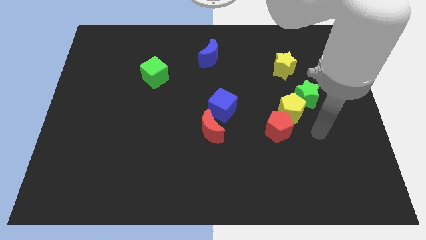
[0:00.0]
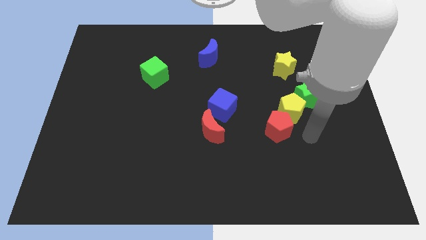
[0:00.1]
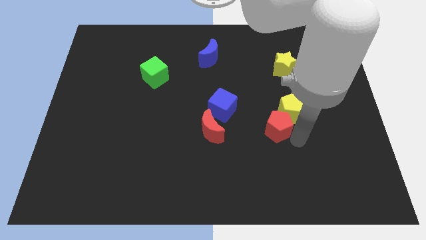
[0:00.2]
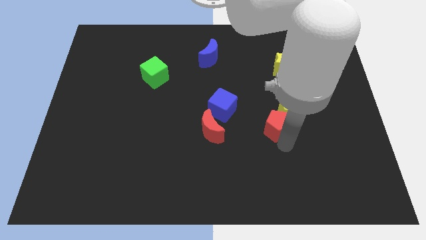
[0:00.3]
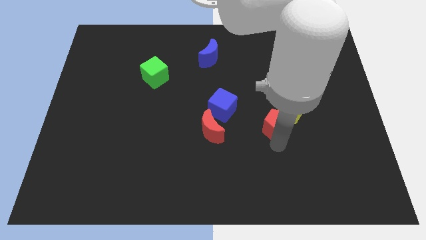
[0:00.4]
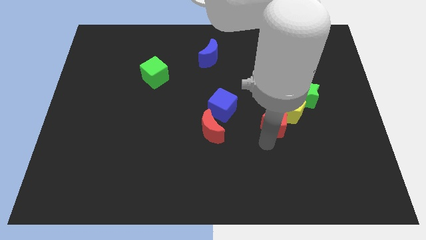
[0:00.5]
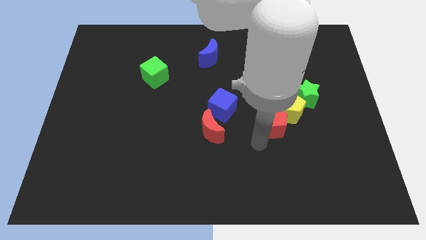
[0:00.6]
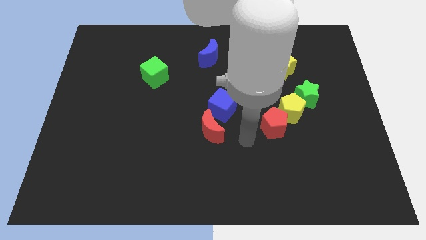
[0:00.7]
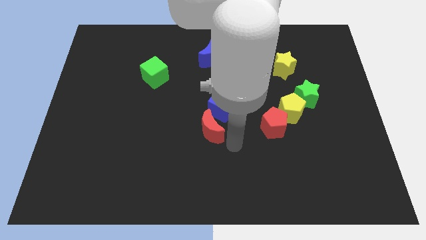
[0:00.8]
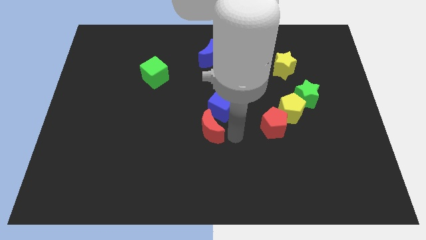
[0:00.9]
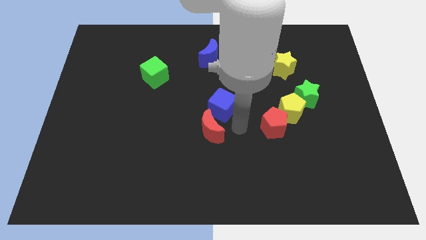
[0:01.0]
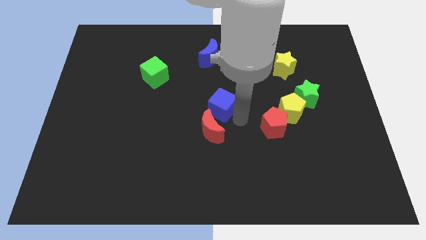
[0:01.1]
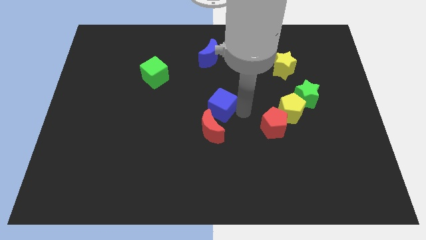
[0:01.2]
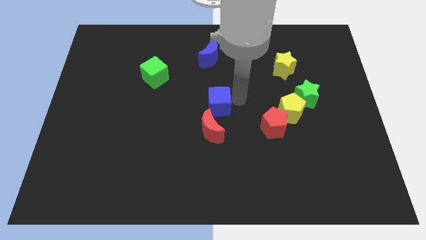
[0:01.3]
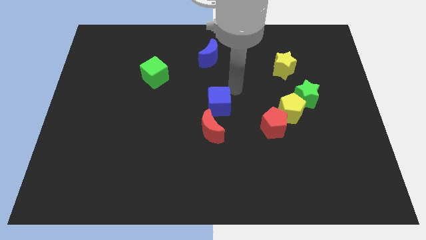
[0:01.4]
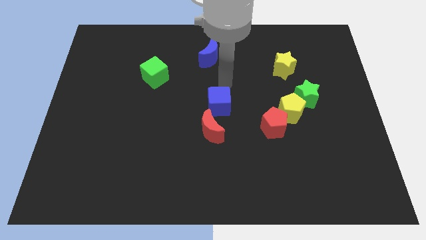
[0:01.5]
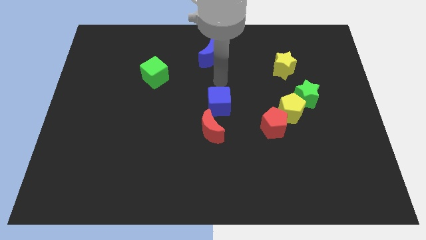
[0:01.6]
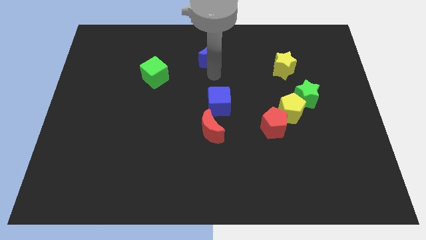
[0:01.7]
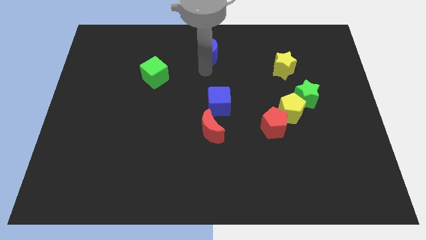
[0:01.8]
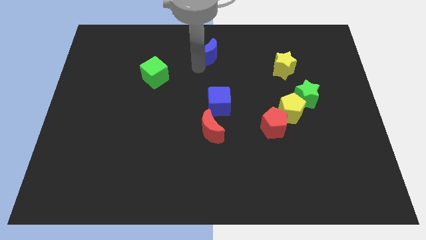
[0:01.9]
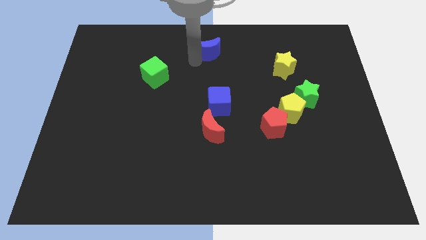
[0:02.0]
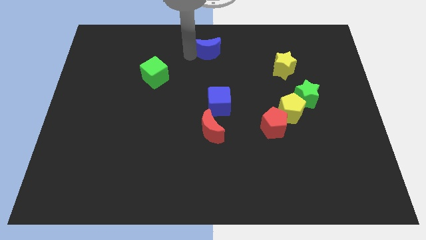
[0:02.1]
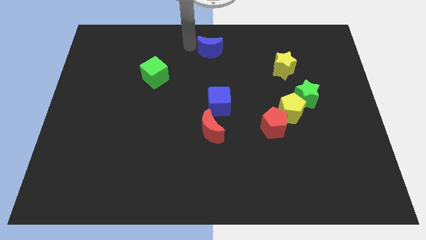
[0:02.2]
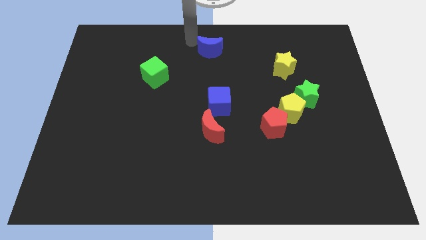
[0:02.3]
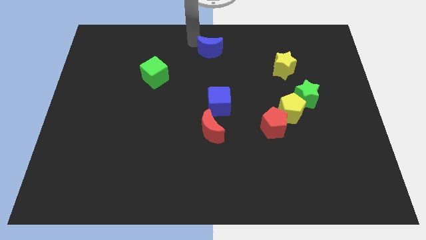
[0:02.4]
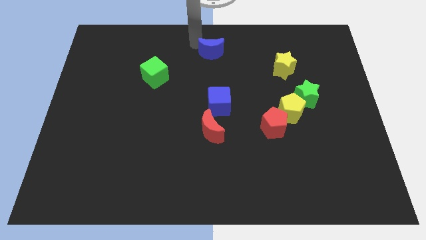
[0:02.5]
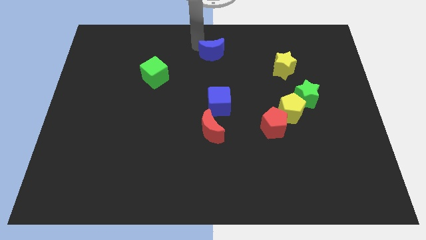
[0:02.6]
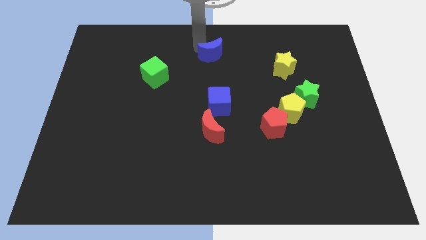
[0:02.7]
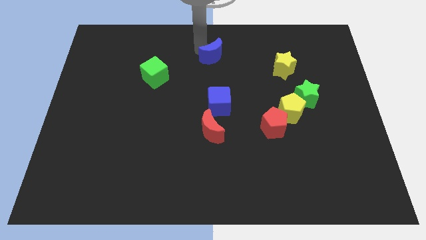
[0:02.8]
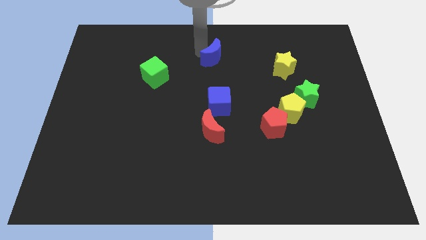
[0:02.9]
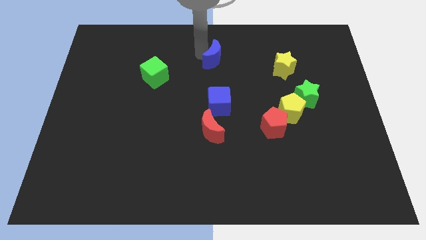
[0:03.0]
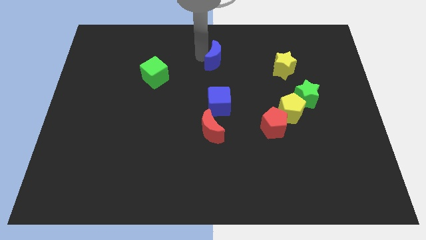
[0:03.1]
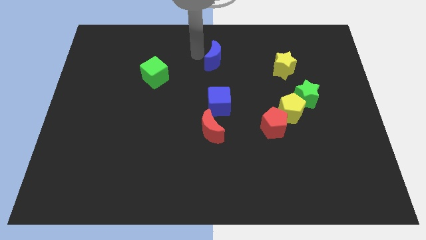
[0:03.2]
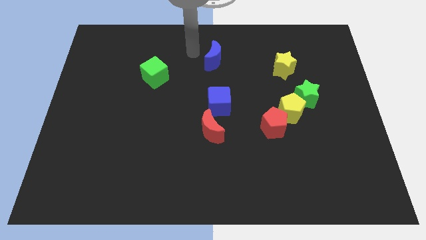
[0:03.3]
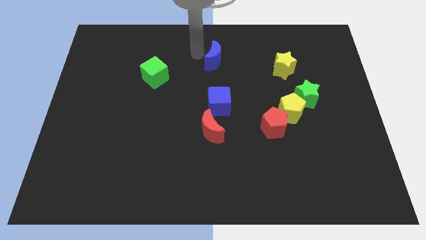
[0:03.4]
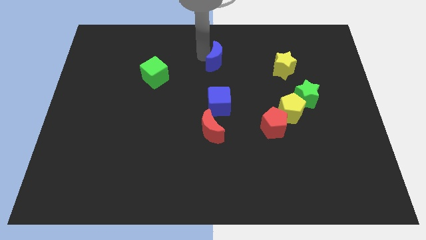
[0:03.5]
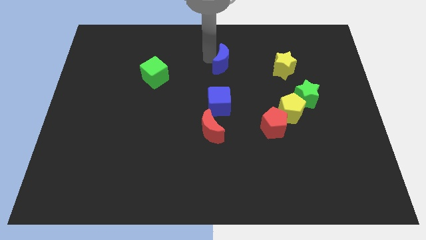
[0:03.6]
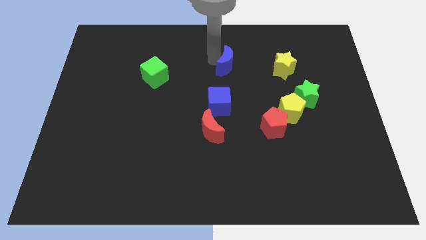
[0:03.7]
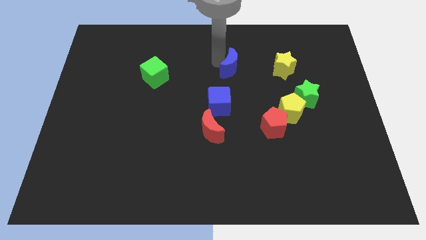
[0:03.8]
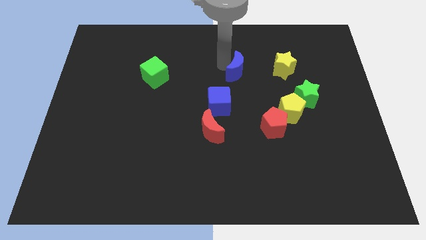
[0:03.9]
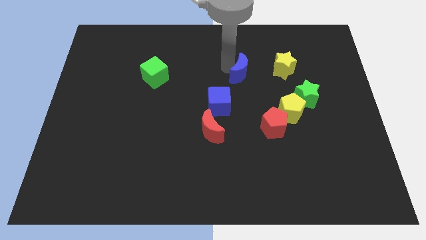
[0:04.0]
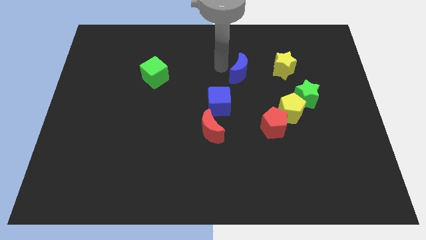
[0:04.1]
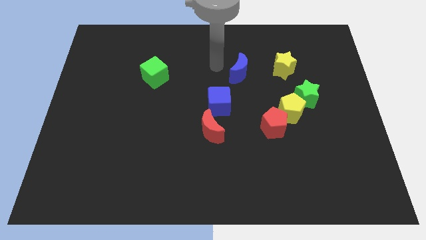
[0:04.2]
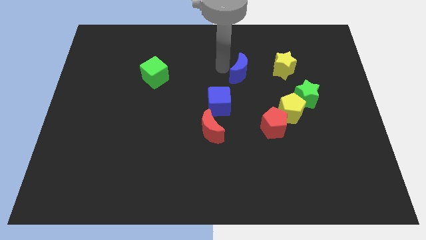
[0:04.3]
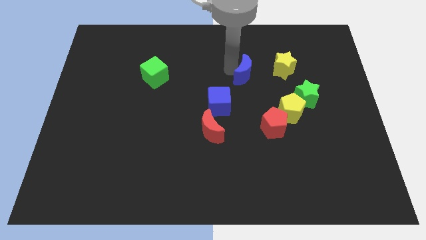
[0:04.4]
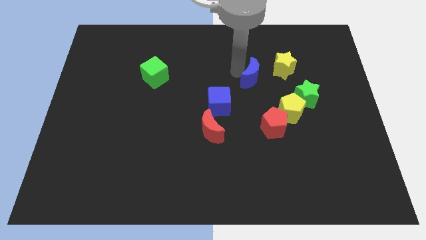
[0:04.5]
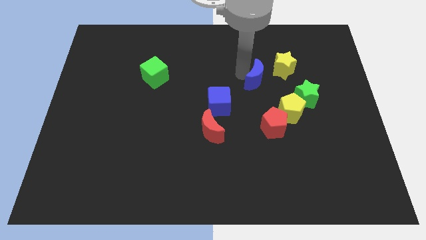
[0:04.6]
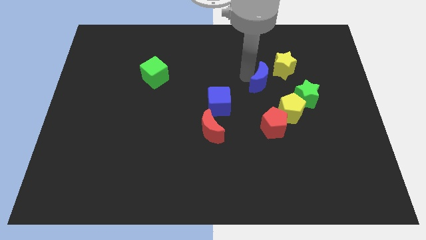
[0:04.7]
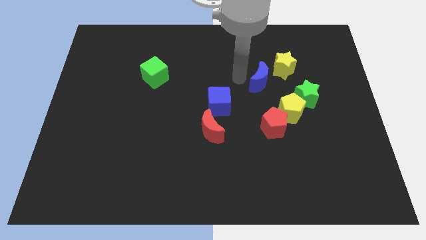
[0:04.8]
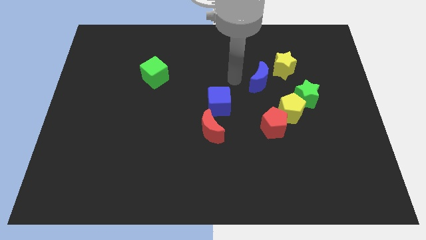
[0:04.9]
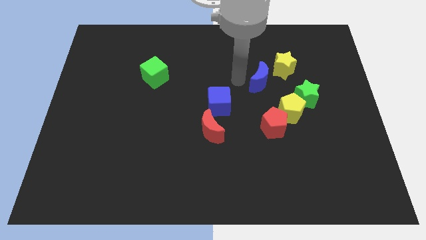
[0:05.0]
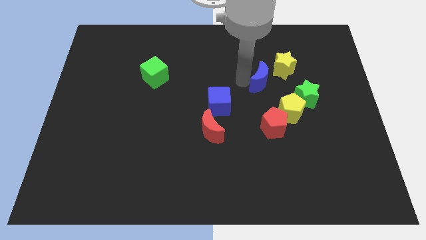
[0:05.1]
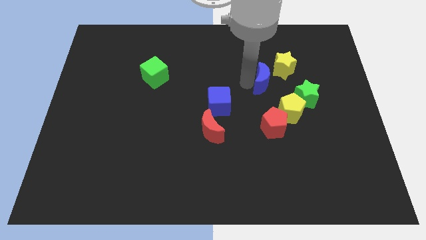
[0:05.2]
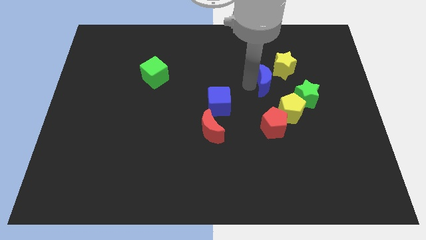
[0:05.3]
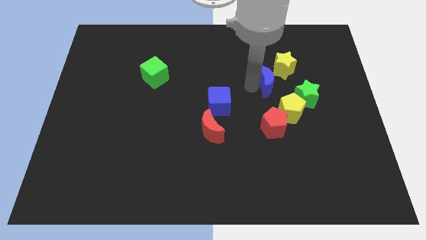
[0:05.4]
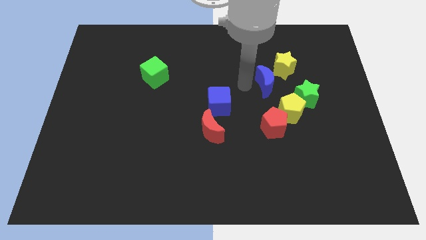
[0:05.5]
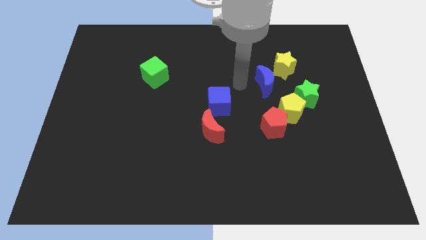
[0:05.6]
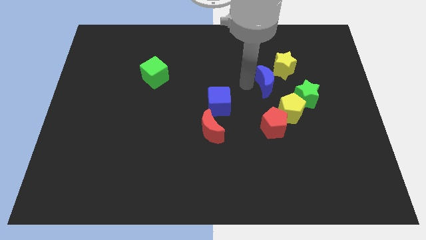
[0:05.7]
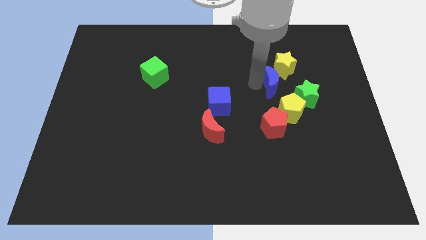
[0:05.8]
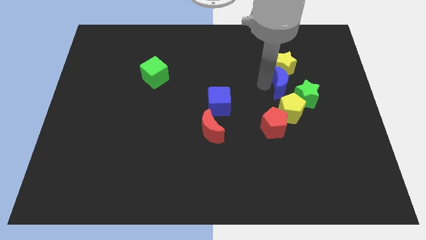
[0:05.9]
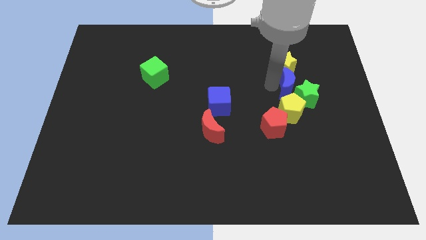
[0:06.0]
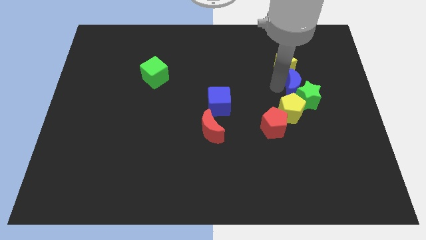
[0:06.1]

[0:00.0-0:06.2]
put the blue moon to the top right side of the yellow pentagon

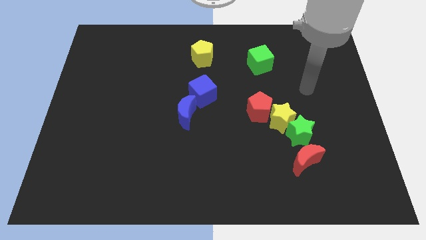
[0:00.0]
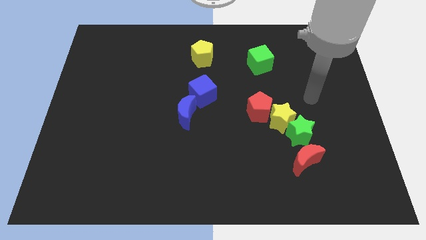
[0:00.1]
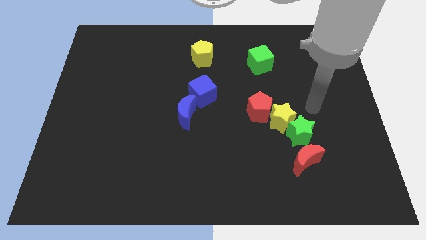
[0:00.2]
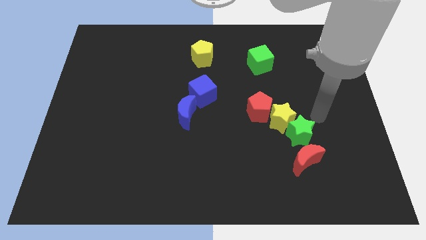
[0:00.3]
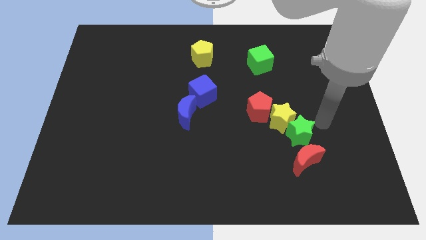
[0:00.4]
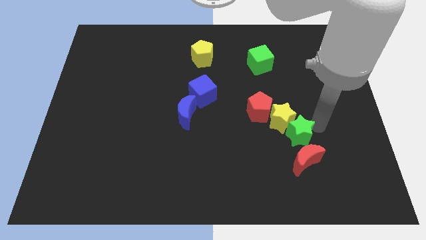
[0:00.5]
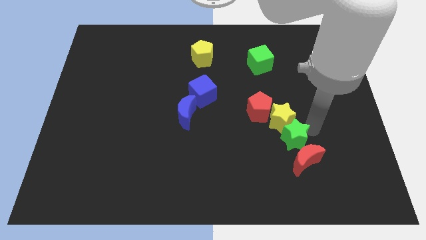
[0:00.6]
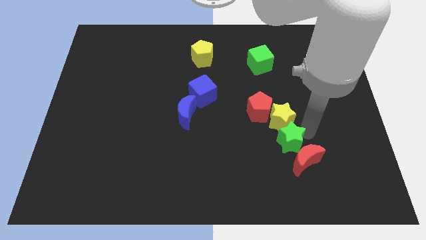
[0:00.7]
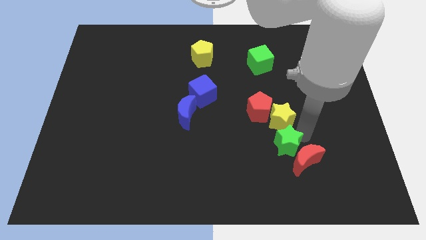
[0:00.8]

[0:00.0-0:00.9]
put the green star left of the red moon
